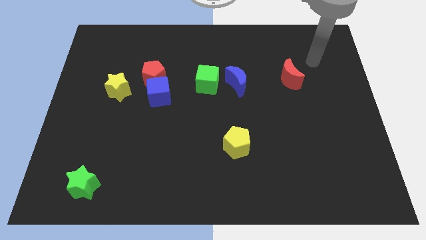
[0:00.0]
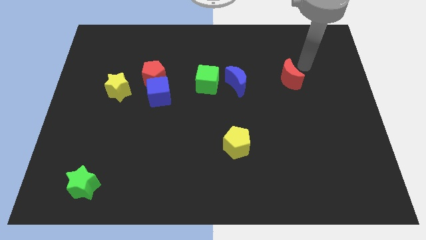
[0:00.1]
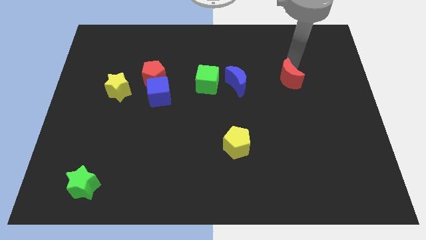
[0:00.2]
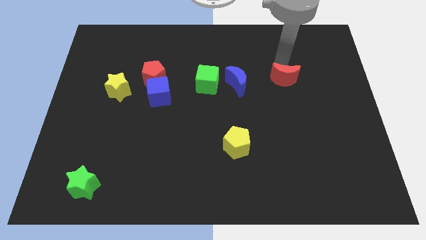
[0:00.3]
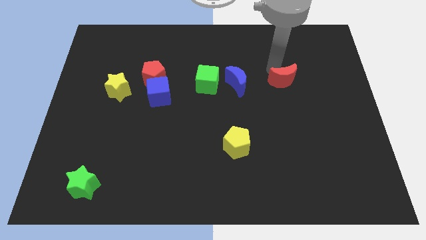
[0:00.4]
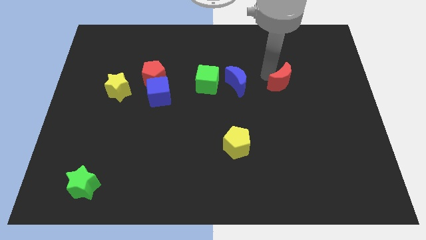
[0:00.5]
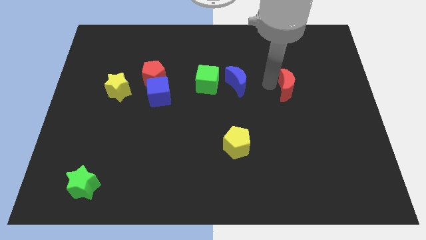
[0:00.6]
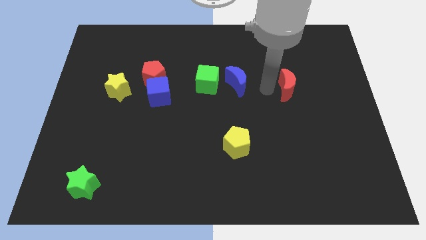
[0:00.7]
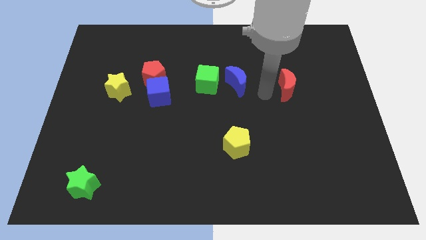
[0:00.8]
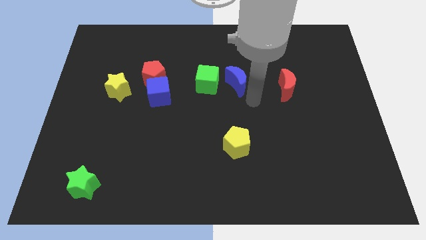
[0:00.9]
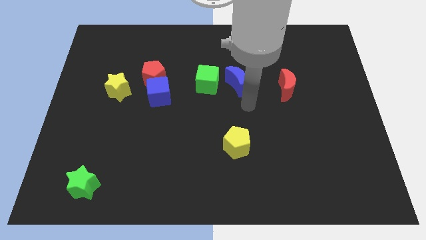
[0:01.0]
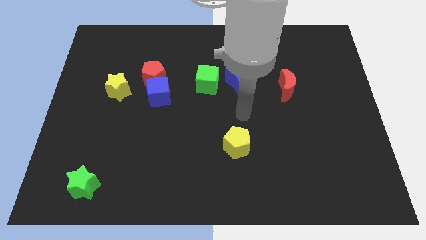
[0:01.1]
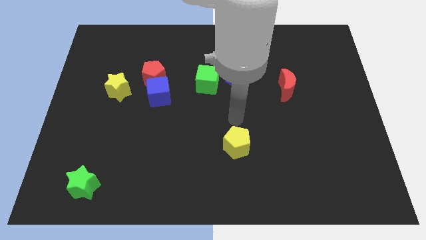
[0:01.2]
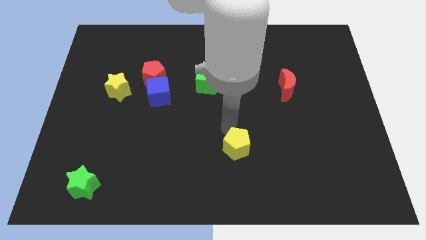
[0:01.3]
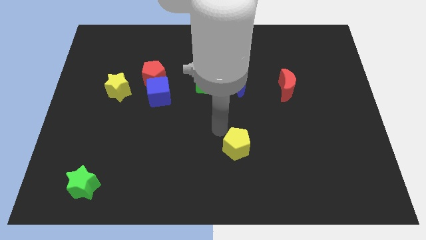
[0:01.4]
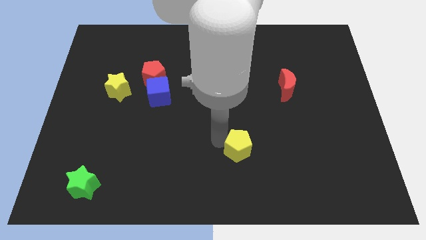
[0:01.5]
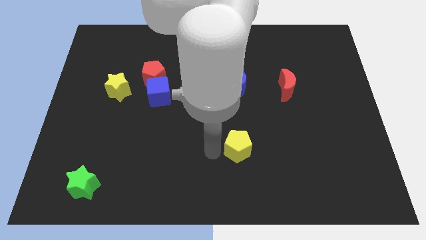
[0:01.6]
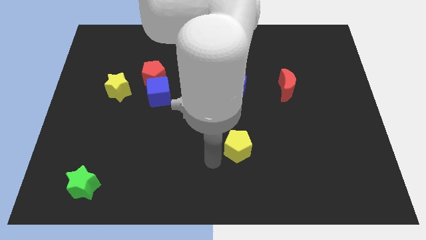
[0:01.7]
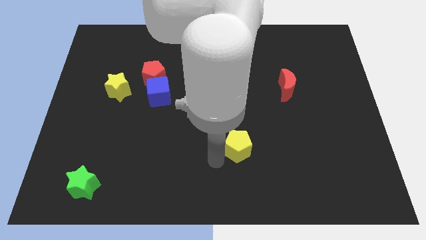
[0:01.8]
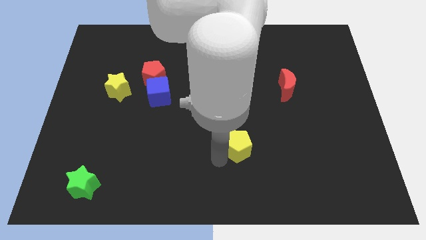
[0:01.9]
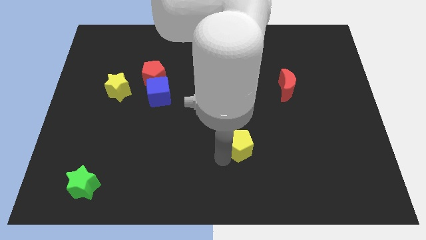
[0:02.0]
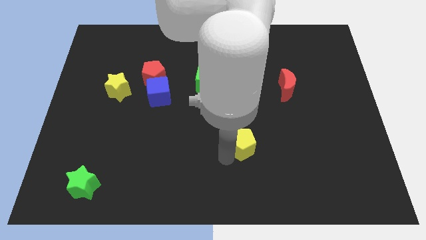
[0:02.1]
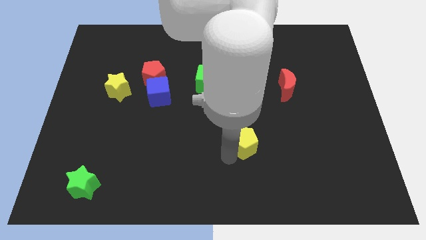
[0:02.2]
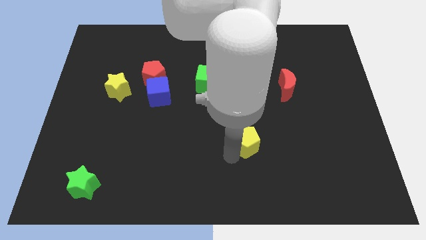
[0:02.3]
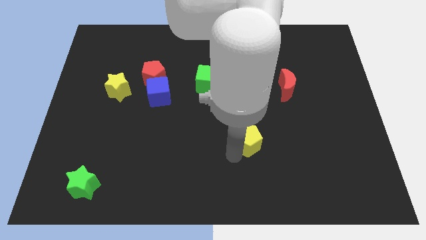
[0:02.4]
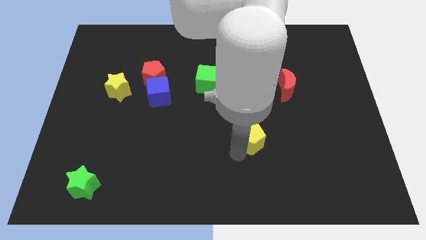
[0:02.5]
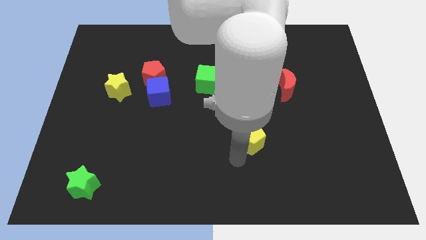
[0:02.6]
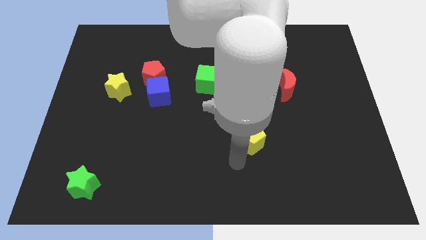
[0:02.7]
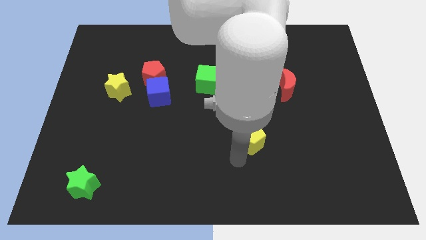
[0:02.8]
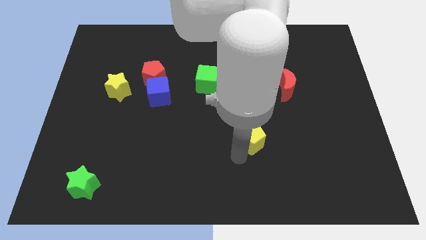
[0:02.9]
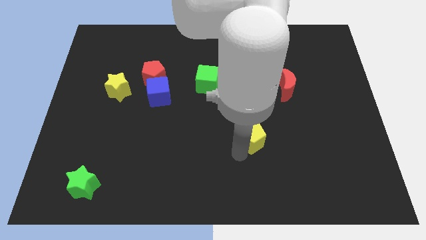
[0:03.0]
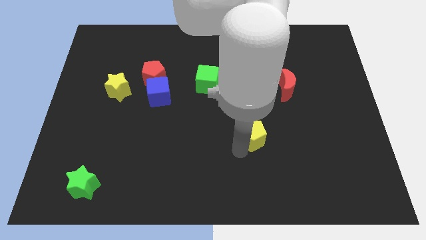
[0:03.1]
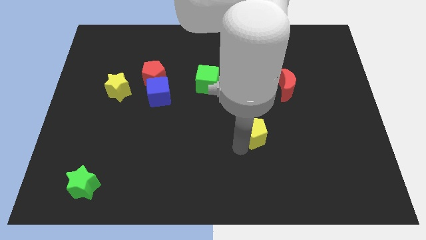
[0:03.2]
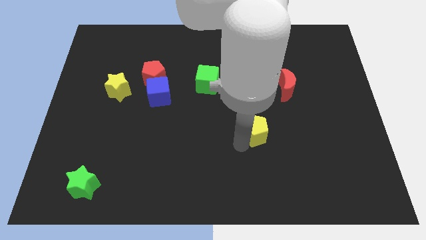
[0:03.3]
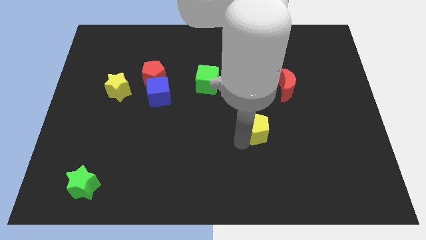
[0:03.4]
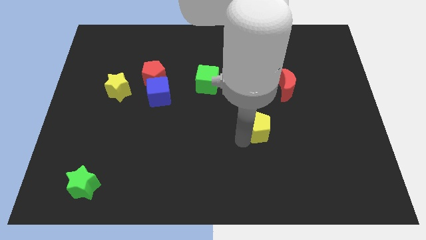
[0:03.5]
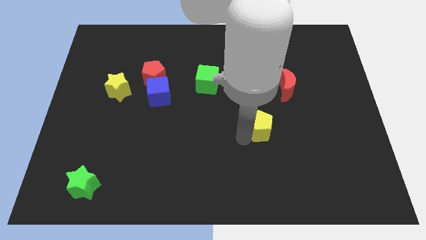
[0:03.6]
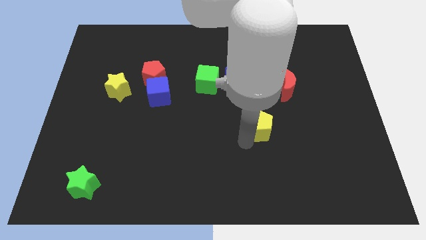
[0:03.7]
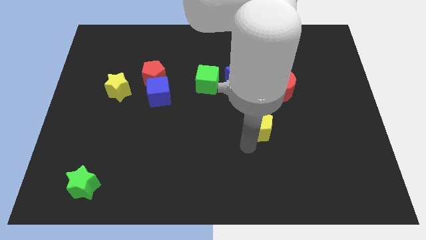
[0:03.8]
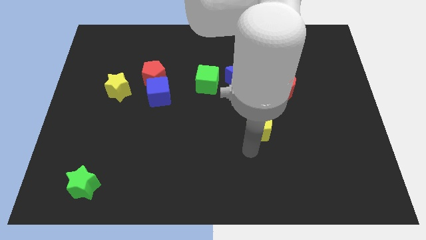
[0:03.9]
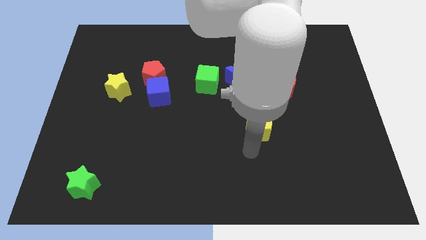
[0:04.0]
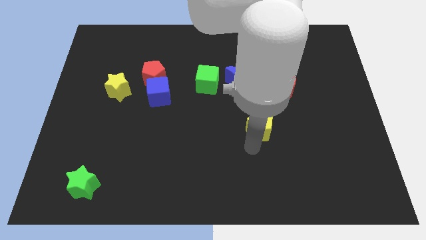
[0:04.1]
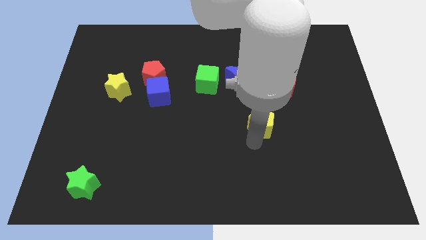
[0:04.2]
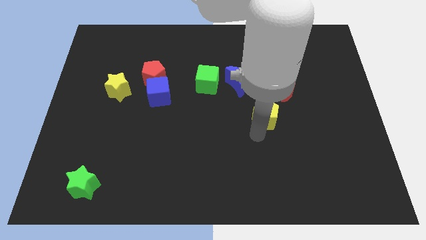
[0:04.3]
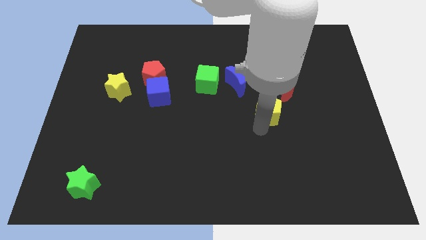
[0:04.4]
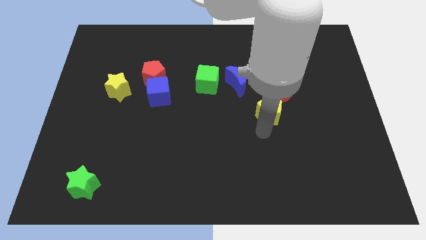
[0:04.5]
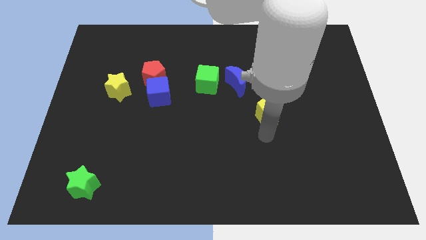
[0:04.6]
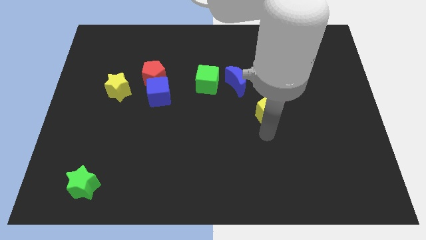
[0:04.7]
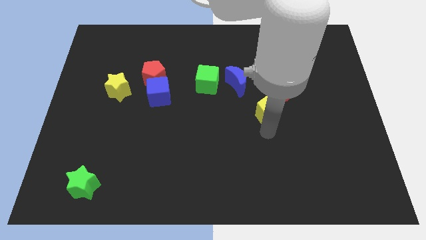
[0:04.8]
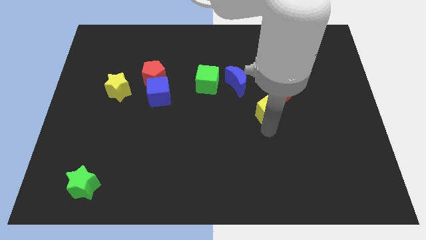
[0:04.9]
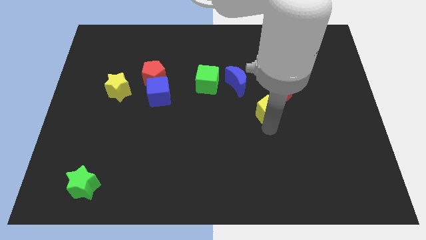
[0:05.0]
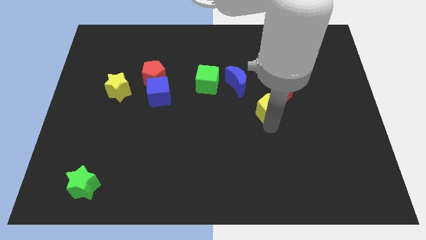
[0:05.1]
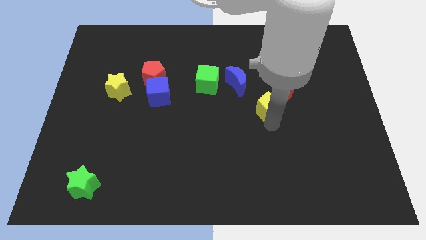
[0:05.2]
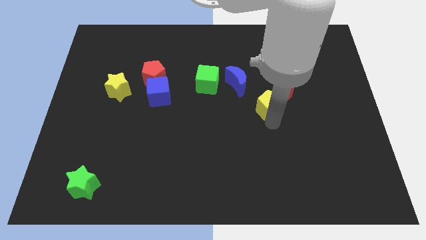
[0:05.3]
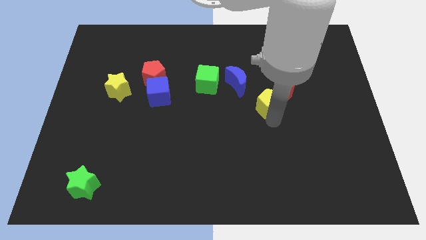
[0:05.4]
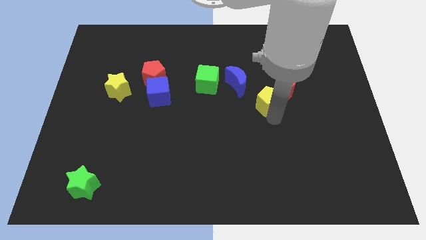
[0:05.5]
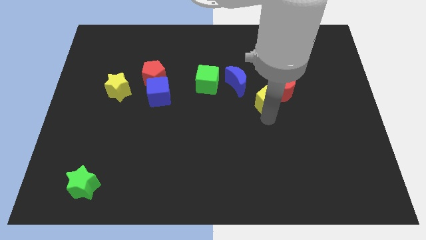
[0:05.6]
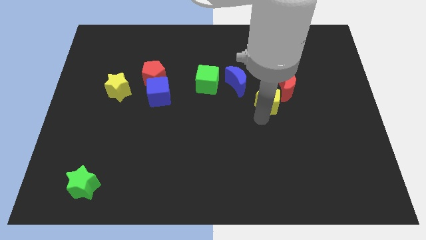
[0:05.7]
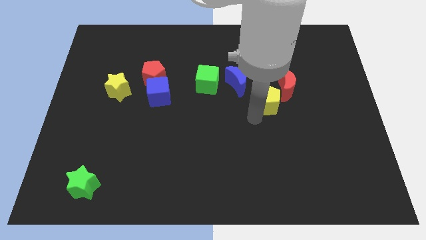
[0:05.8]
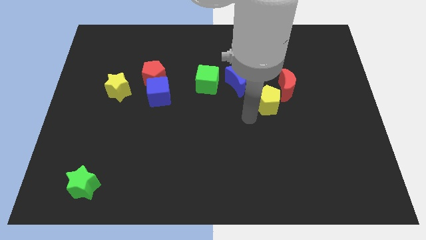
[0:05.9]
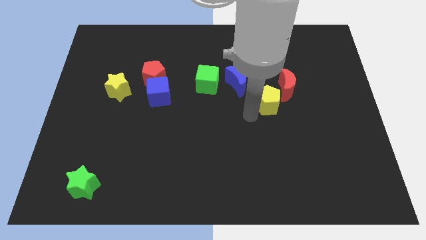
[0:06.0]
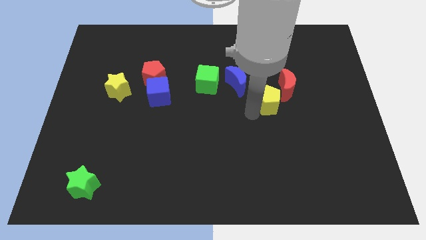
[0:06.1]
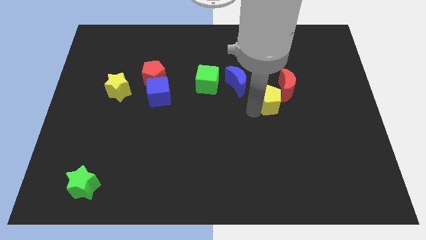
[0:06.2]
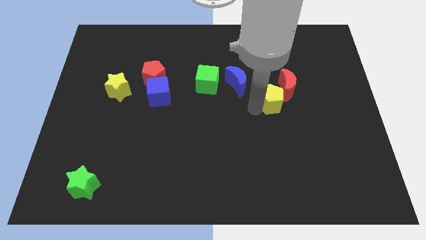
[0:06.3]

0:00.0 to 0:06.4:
push the yellow pentagon towards the red moon

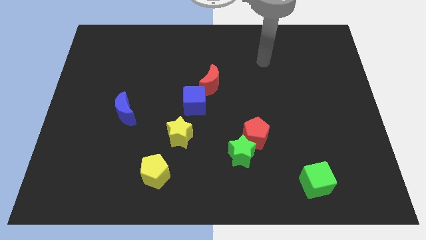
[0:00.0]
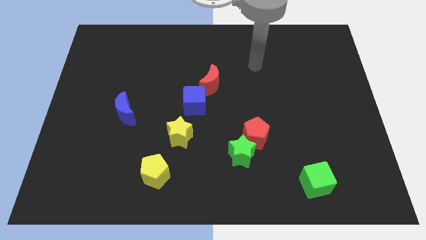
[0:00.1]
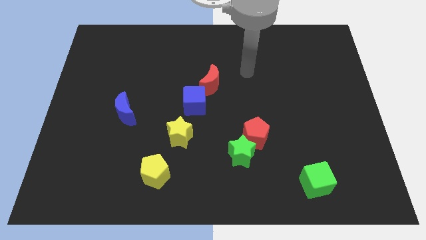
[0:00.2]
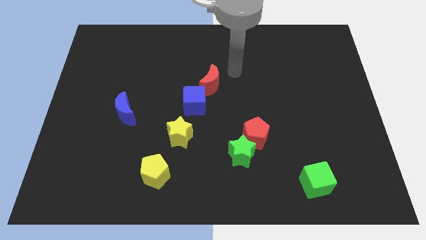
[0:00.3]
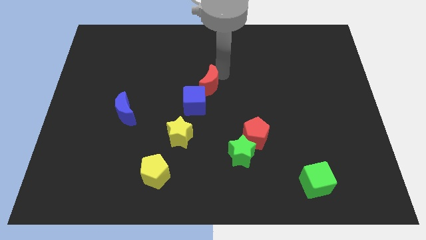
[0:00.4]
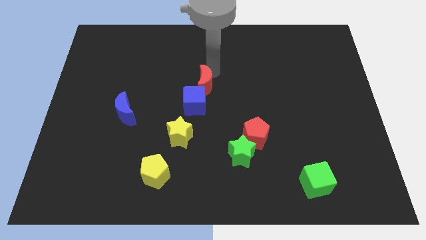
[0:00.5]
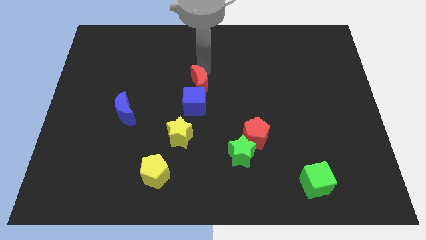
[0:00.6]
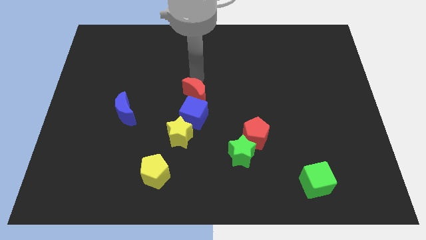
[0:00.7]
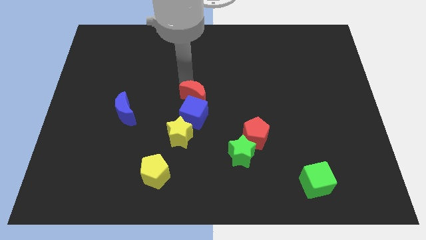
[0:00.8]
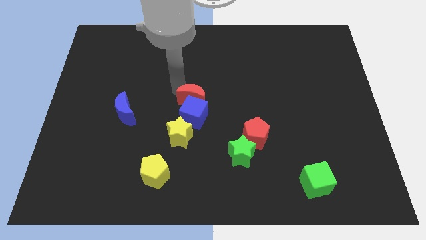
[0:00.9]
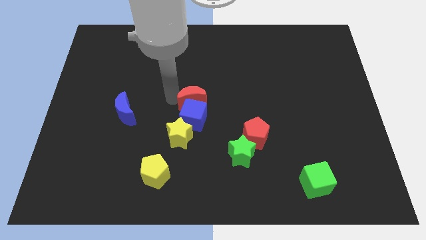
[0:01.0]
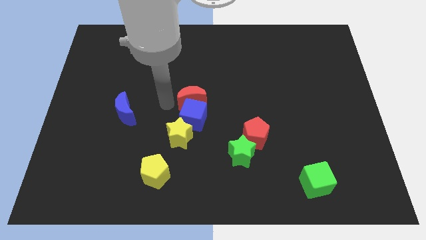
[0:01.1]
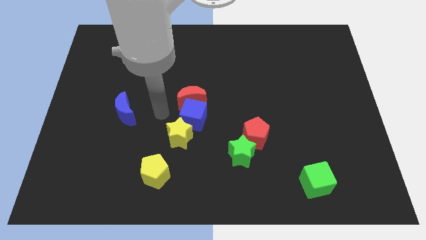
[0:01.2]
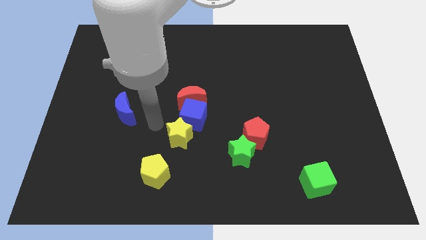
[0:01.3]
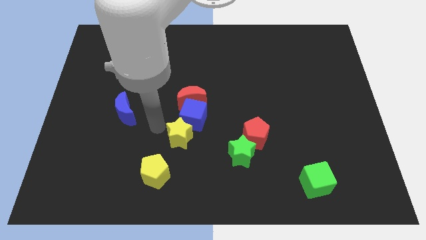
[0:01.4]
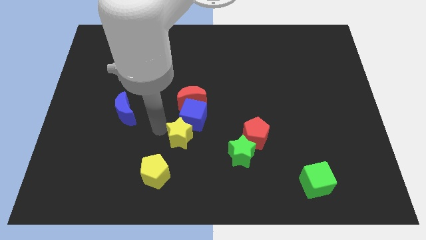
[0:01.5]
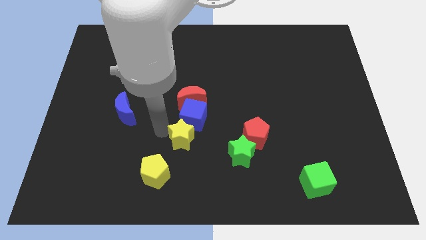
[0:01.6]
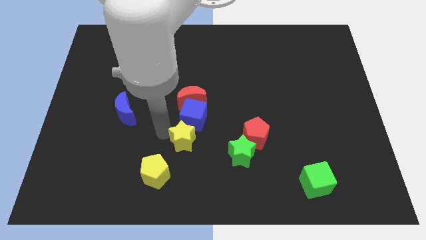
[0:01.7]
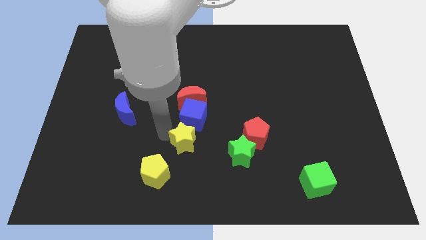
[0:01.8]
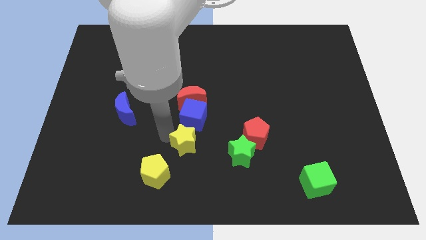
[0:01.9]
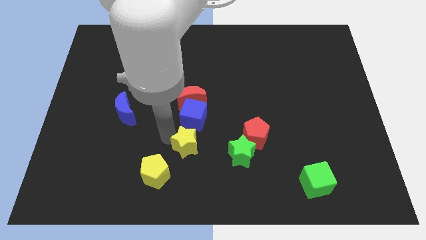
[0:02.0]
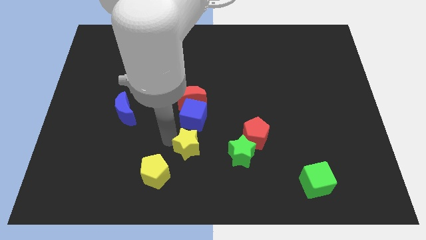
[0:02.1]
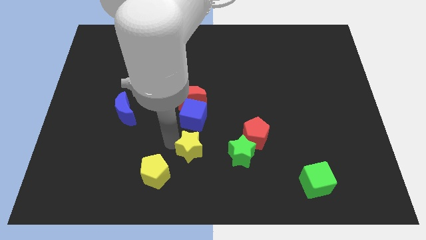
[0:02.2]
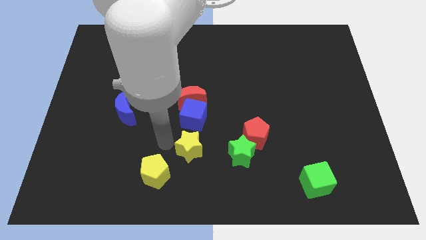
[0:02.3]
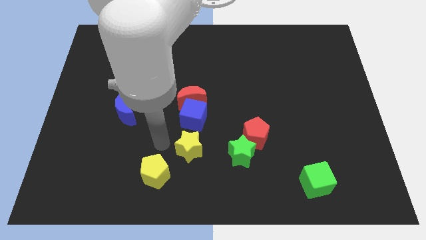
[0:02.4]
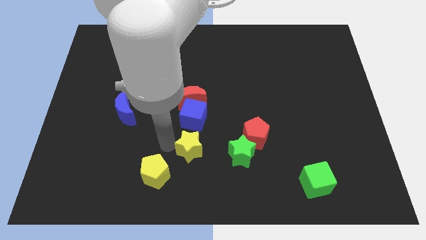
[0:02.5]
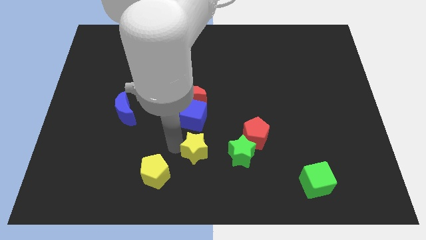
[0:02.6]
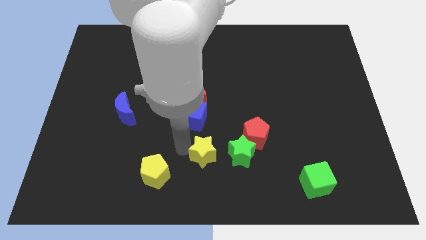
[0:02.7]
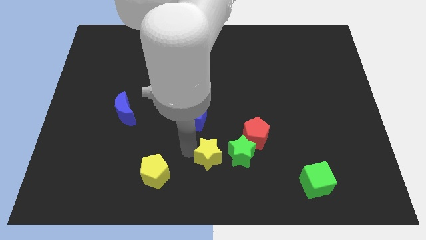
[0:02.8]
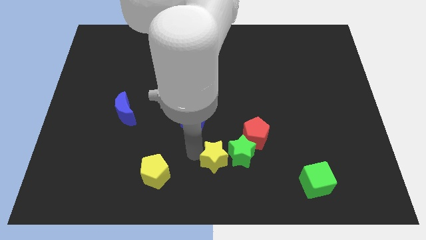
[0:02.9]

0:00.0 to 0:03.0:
slide the yellow star next to the green star
